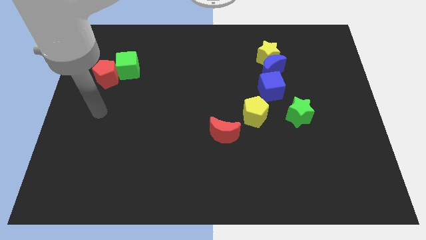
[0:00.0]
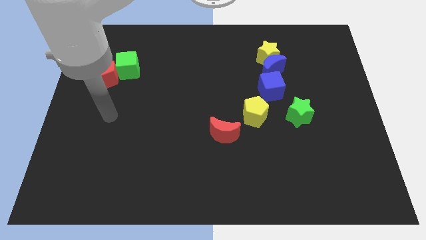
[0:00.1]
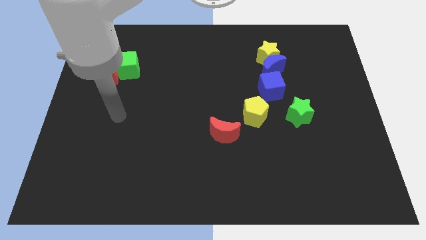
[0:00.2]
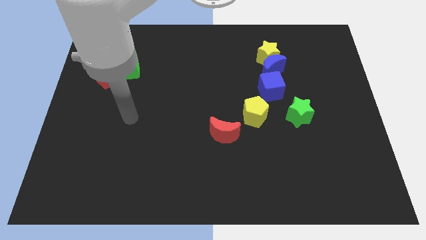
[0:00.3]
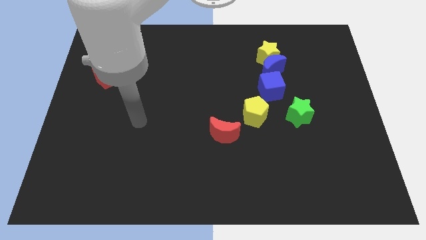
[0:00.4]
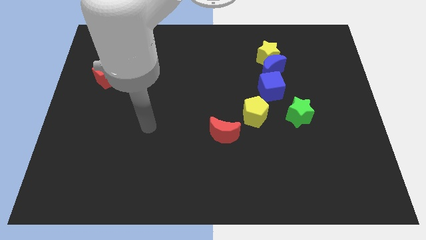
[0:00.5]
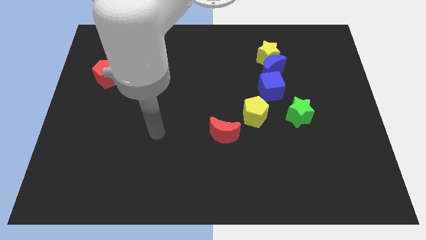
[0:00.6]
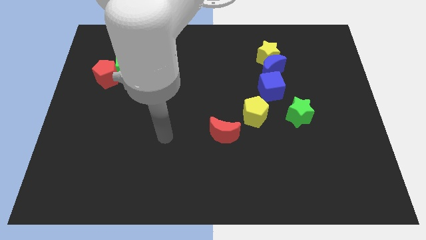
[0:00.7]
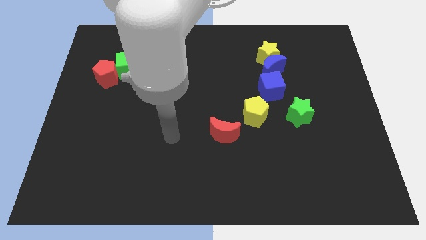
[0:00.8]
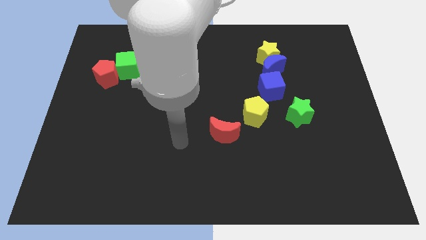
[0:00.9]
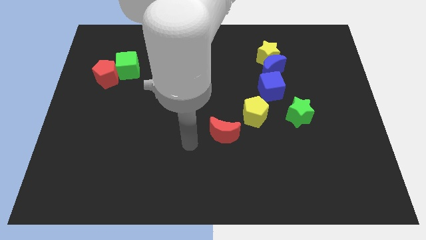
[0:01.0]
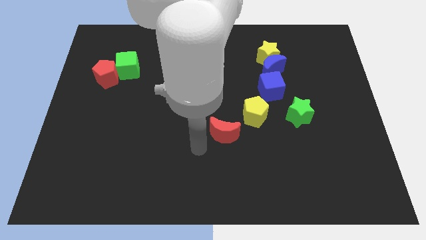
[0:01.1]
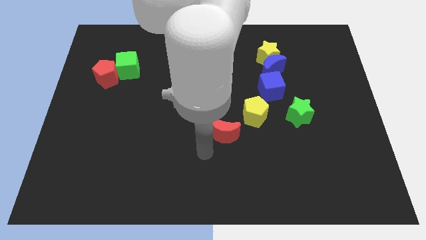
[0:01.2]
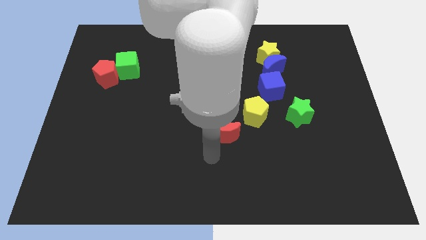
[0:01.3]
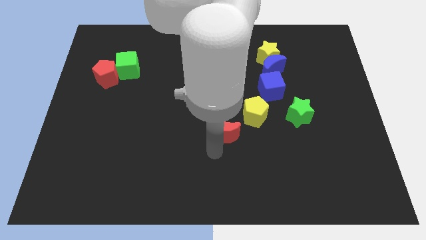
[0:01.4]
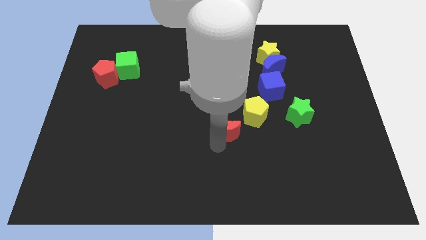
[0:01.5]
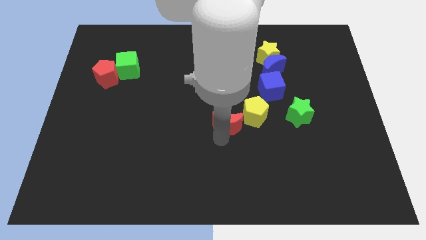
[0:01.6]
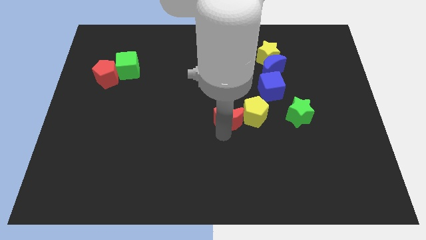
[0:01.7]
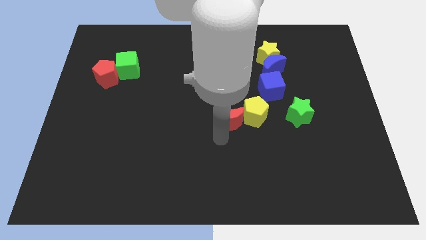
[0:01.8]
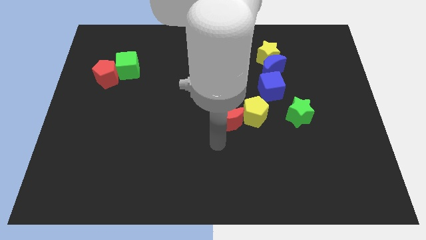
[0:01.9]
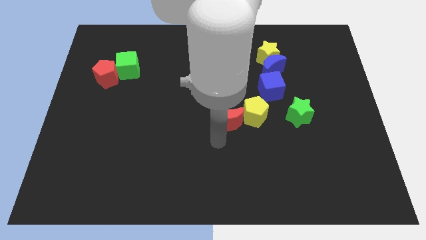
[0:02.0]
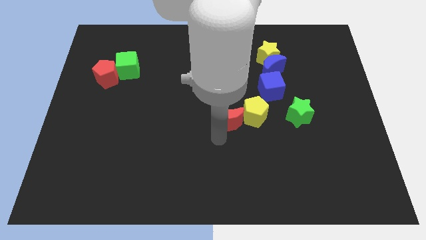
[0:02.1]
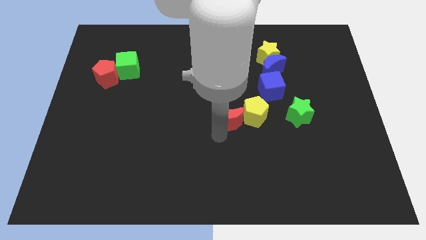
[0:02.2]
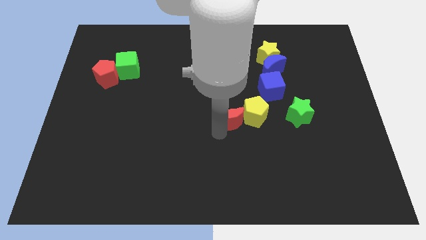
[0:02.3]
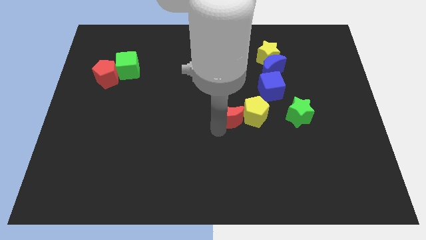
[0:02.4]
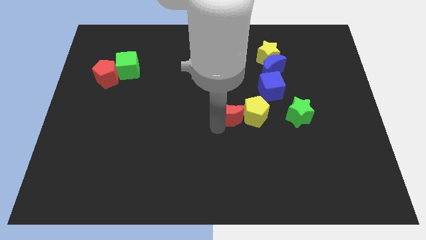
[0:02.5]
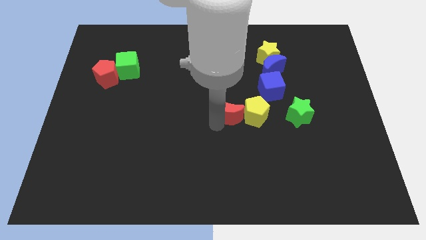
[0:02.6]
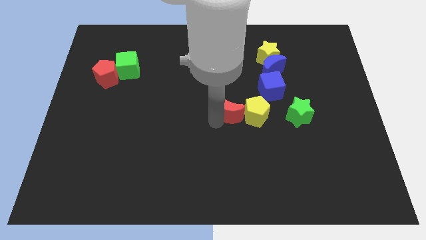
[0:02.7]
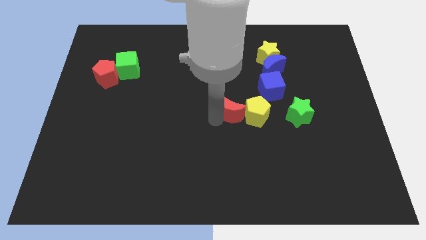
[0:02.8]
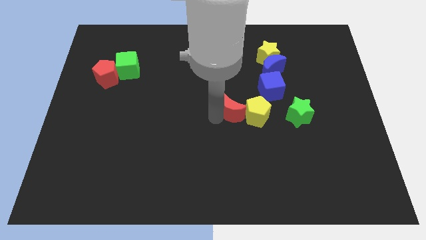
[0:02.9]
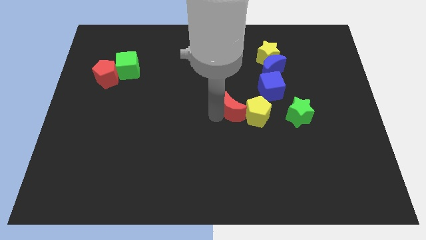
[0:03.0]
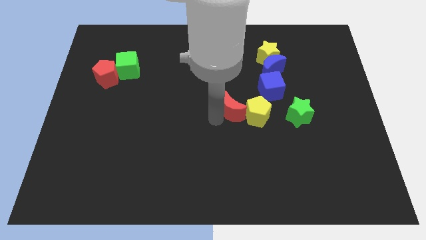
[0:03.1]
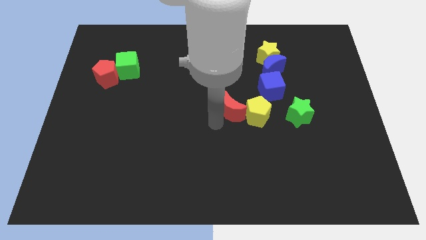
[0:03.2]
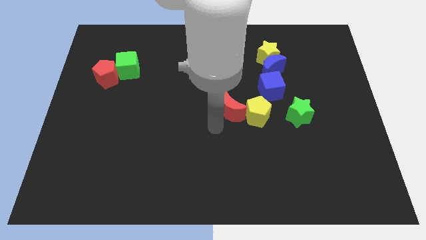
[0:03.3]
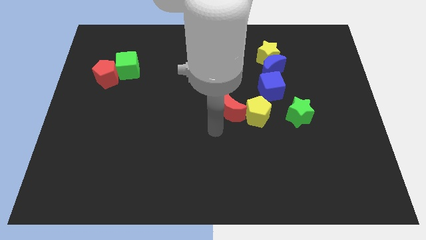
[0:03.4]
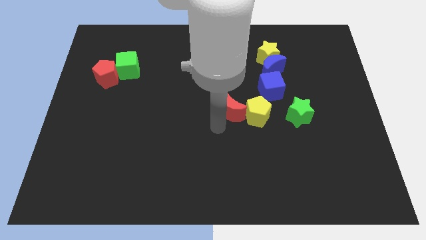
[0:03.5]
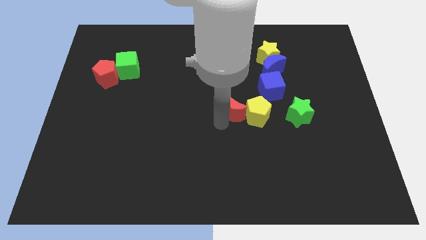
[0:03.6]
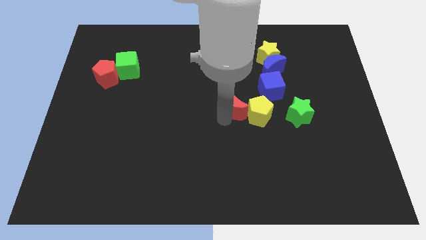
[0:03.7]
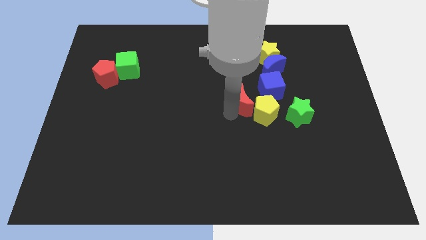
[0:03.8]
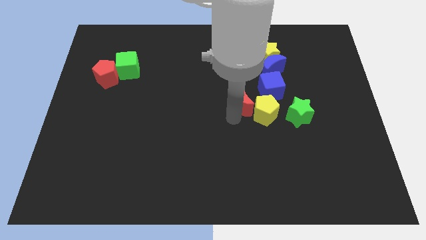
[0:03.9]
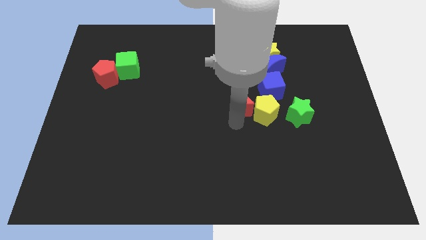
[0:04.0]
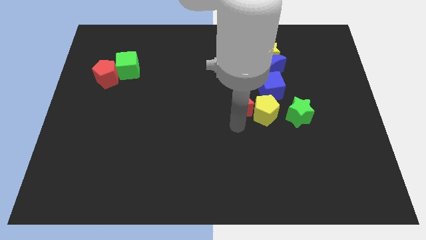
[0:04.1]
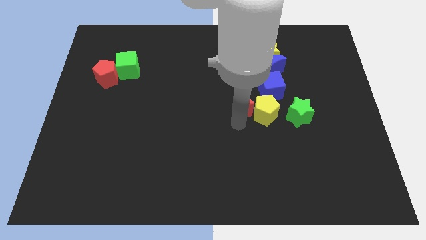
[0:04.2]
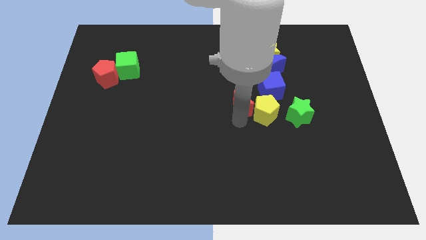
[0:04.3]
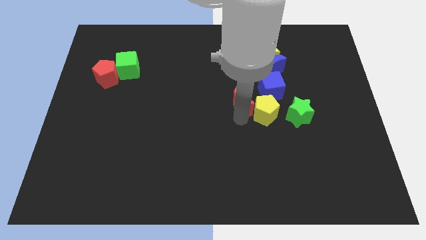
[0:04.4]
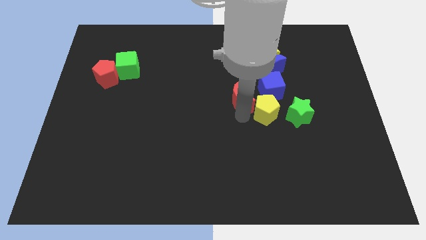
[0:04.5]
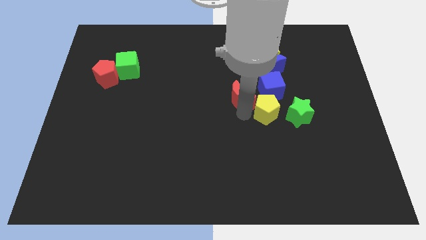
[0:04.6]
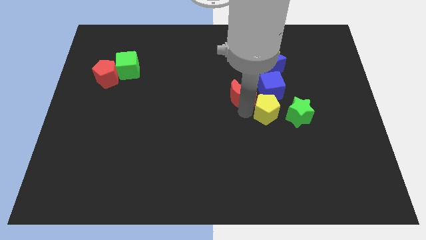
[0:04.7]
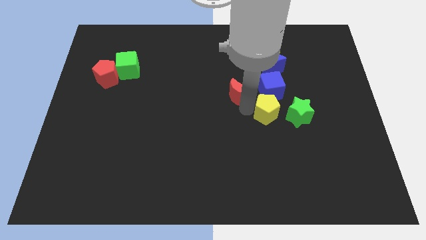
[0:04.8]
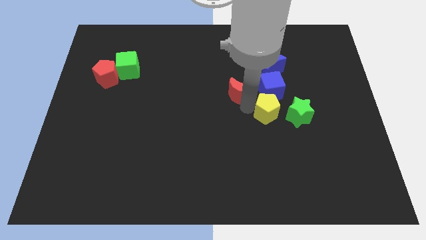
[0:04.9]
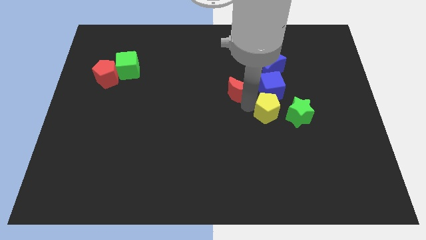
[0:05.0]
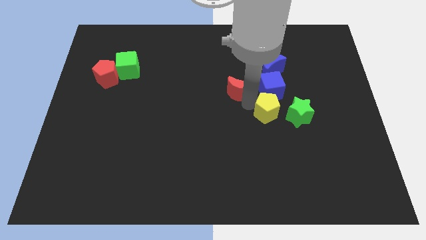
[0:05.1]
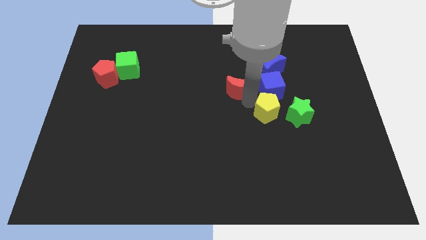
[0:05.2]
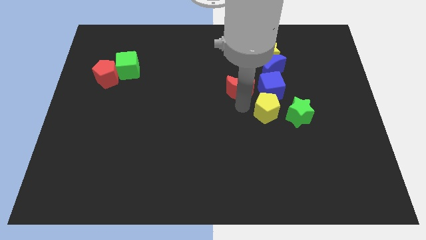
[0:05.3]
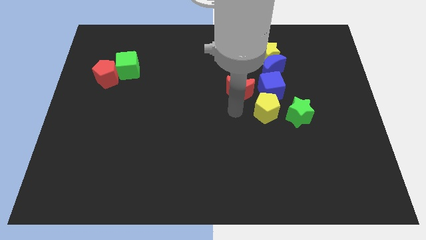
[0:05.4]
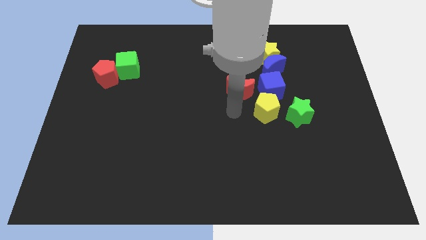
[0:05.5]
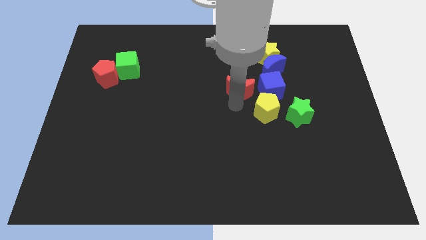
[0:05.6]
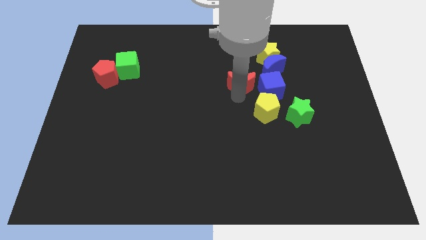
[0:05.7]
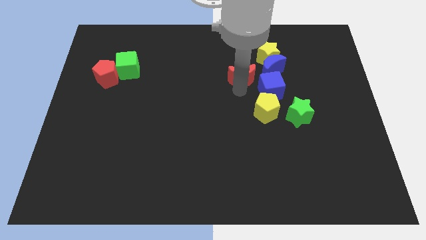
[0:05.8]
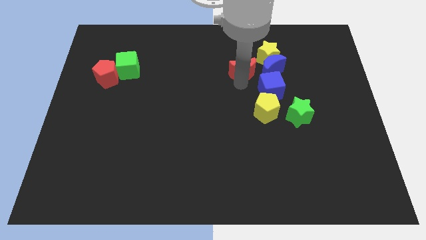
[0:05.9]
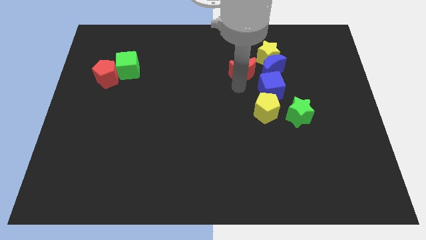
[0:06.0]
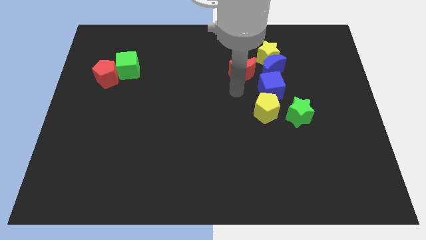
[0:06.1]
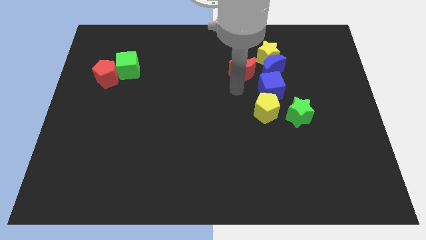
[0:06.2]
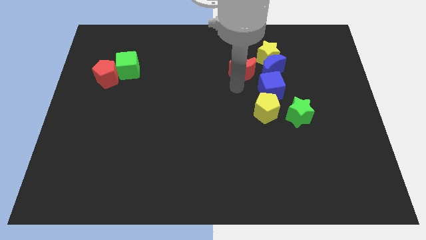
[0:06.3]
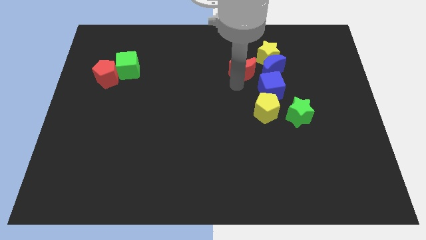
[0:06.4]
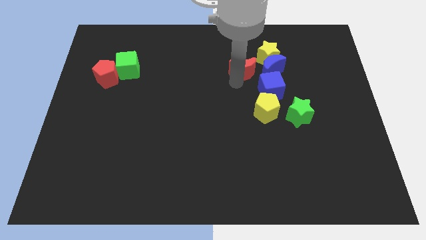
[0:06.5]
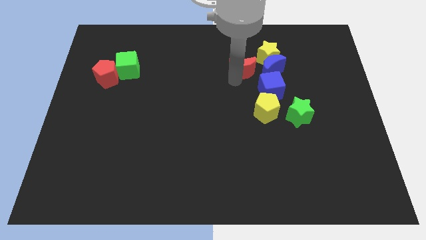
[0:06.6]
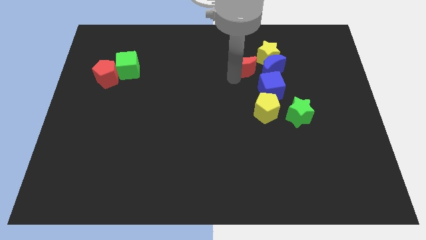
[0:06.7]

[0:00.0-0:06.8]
push the red moon to the top left side of the blue moon
